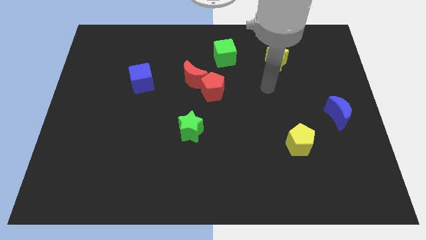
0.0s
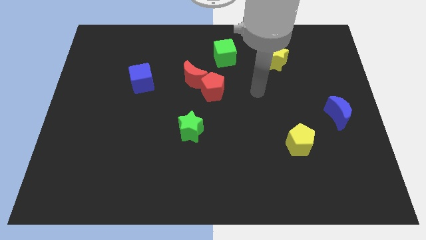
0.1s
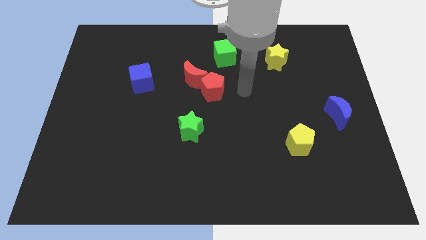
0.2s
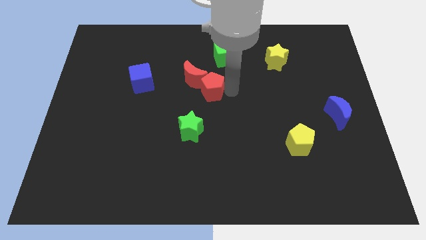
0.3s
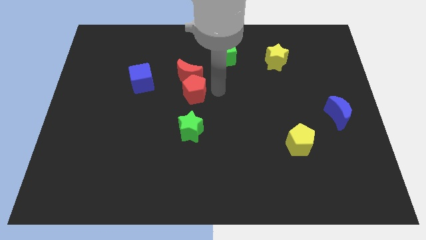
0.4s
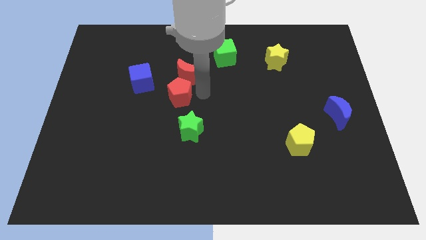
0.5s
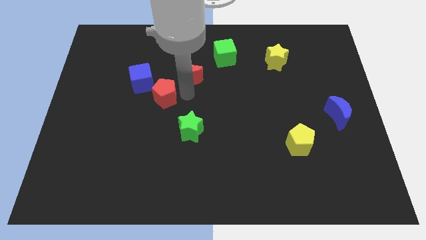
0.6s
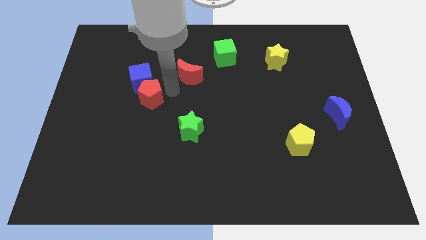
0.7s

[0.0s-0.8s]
move the red moon away from the red pentagon

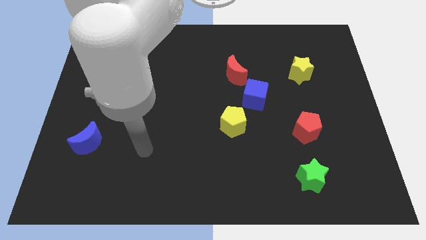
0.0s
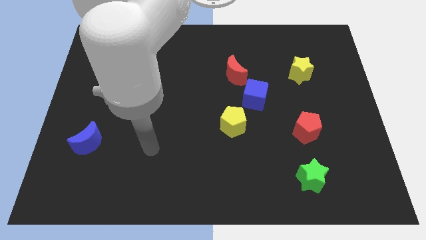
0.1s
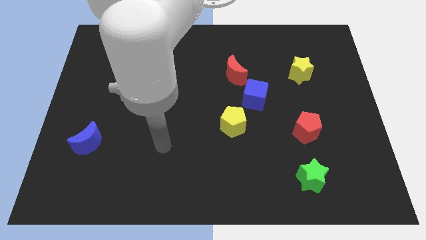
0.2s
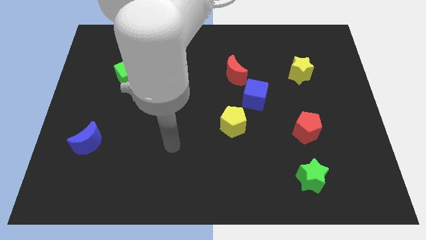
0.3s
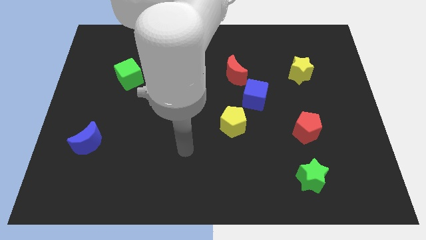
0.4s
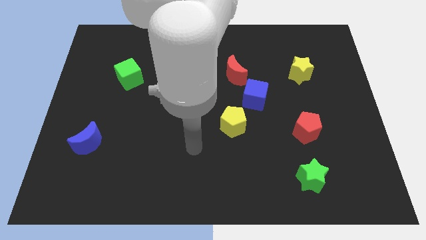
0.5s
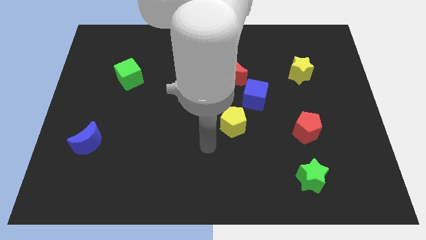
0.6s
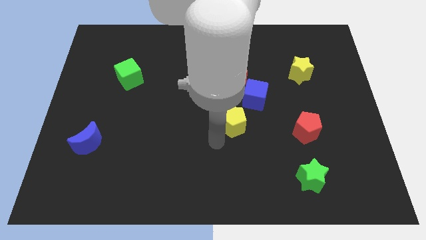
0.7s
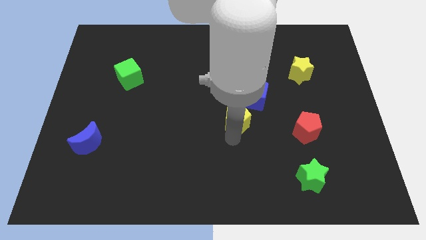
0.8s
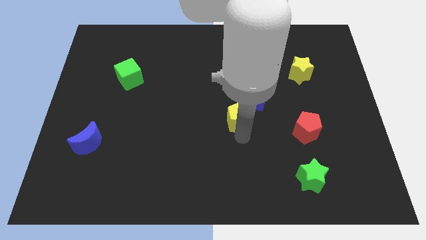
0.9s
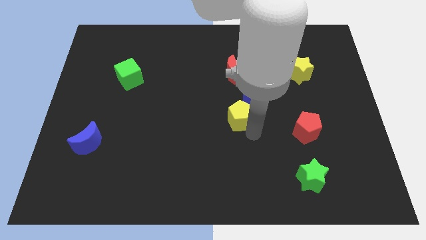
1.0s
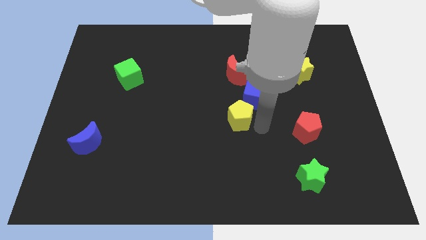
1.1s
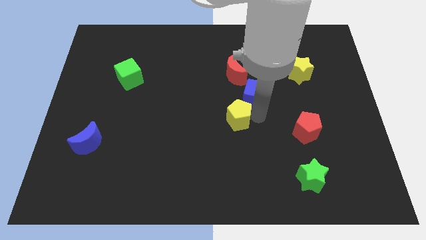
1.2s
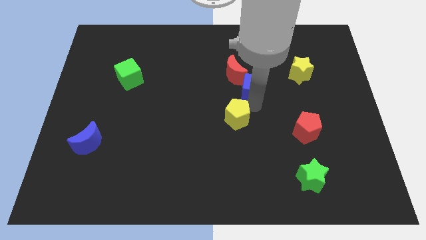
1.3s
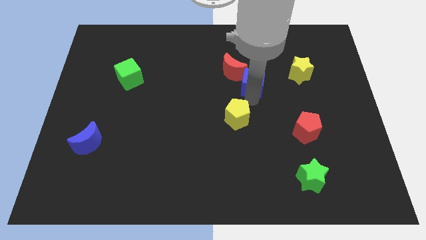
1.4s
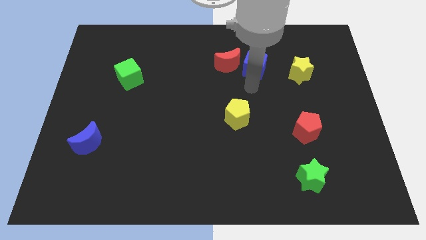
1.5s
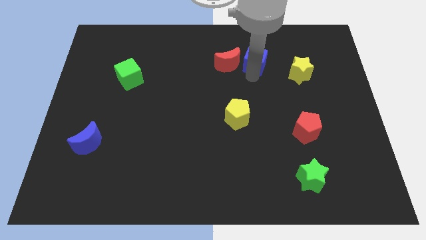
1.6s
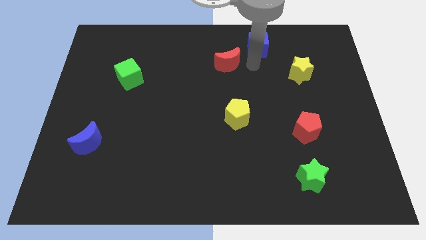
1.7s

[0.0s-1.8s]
pull the red moon apart from the blue cube

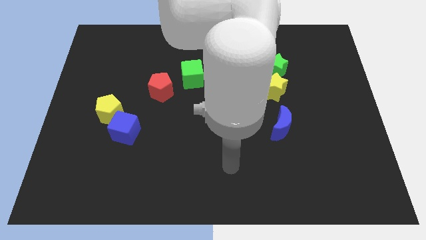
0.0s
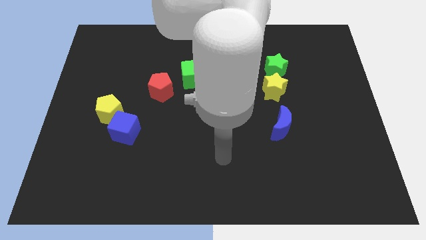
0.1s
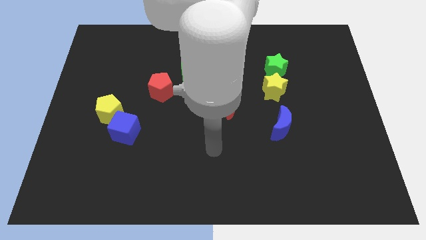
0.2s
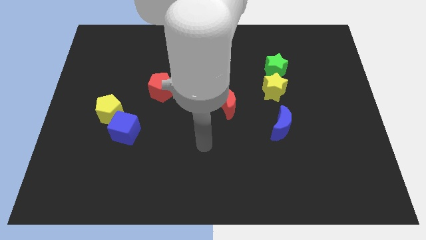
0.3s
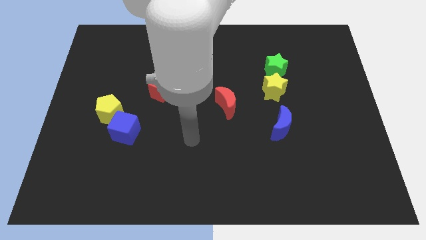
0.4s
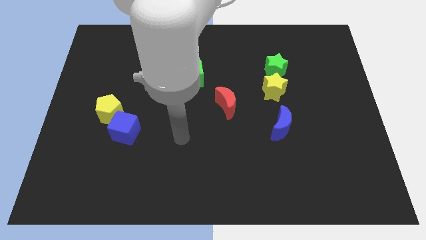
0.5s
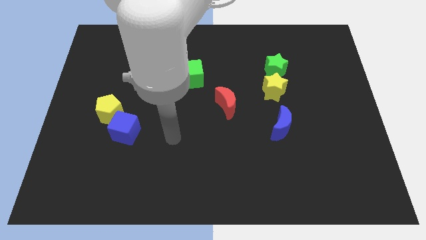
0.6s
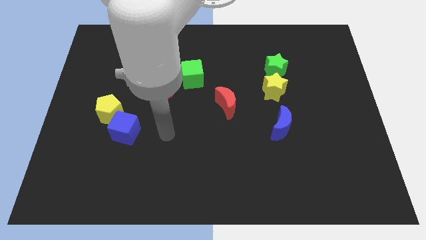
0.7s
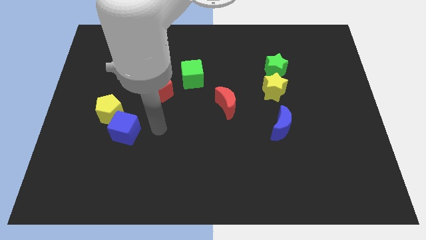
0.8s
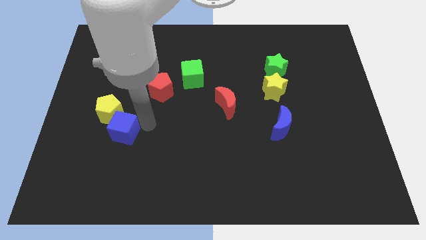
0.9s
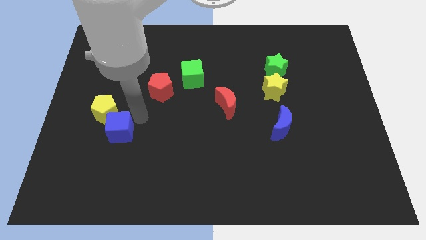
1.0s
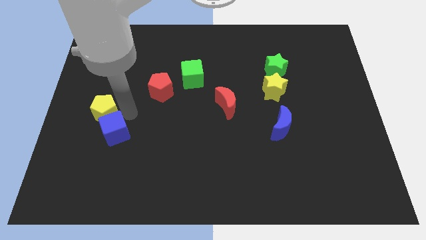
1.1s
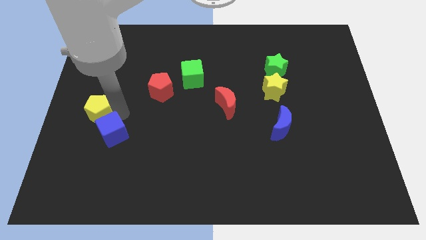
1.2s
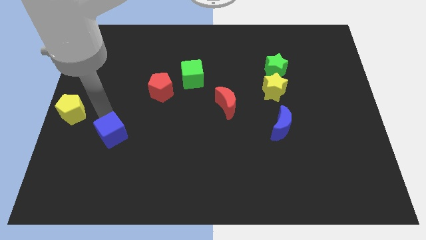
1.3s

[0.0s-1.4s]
pull the blue cube apart from the yellow pentagon

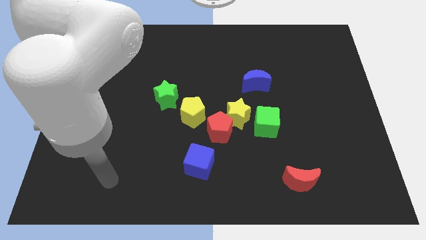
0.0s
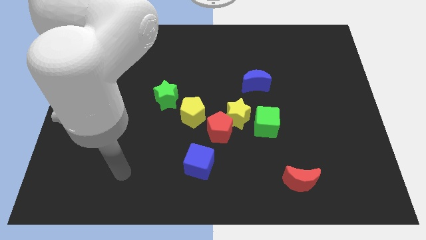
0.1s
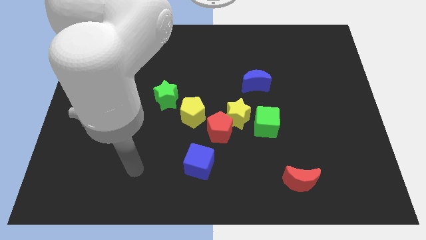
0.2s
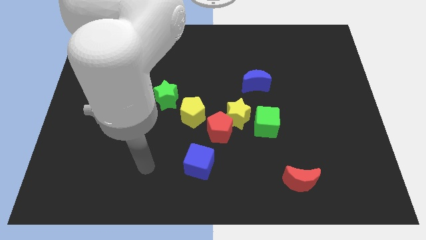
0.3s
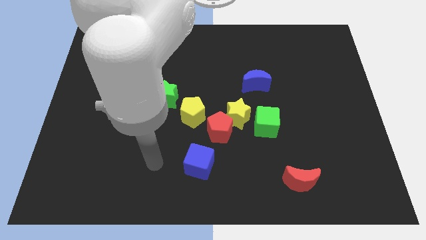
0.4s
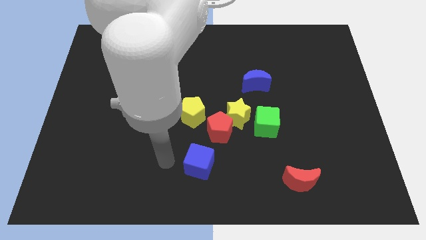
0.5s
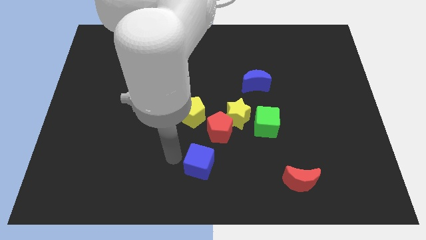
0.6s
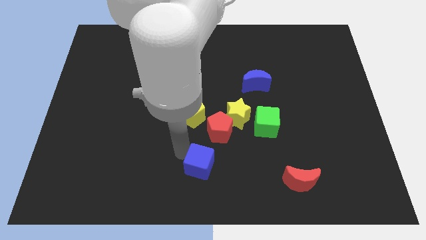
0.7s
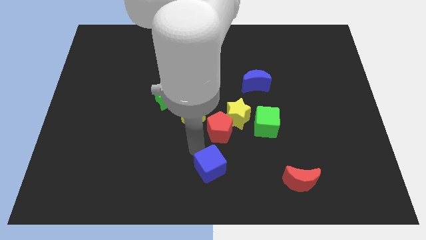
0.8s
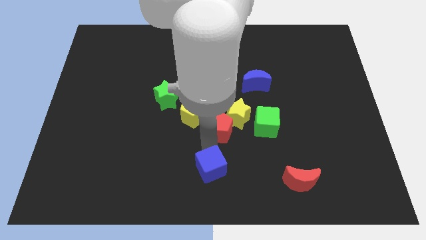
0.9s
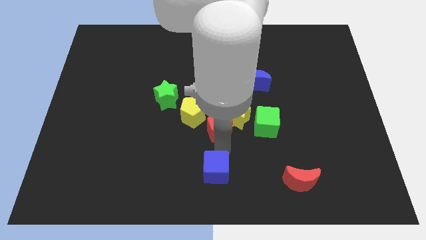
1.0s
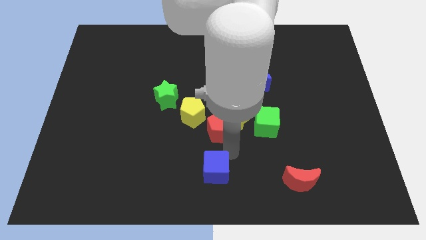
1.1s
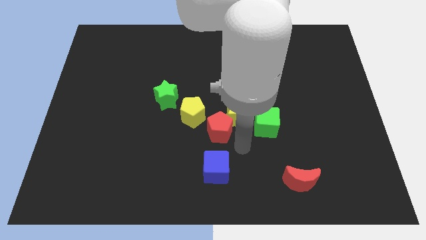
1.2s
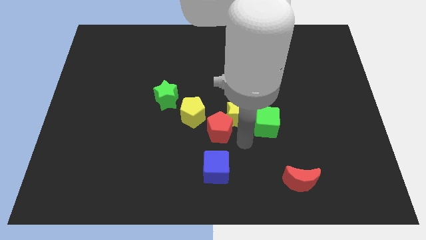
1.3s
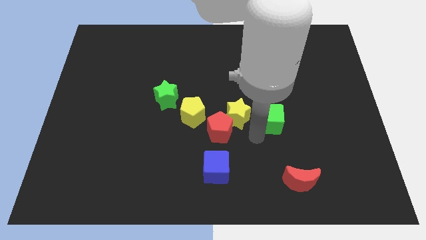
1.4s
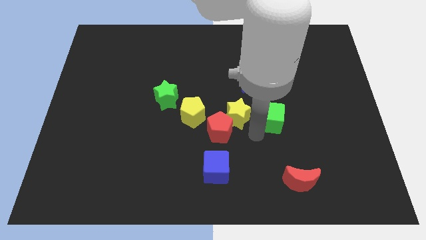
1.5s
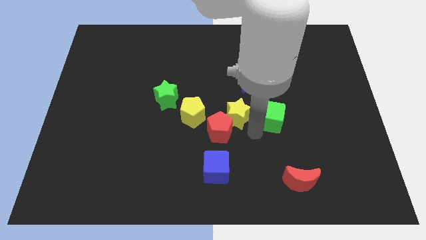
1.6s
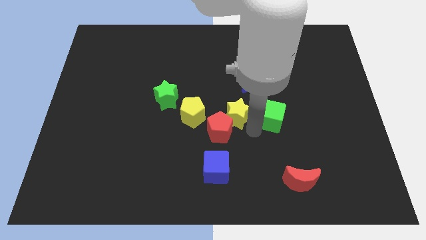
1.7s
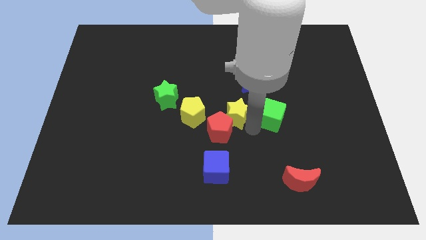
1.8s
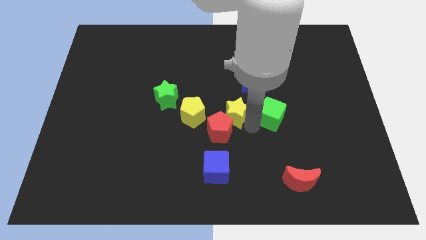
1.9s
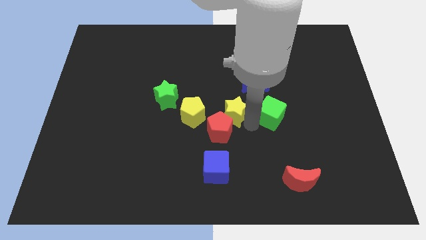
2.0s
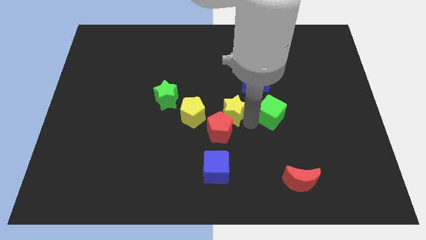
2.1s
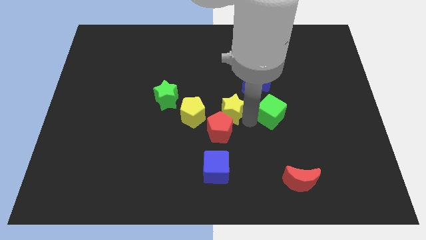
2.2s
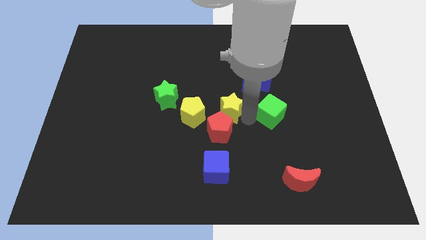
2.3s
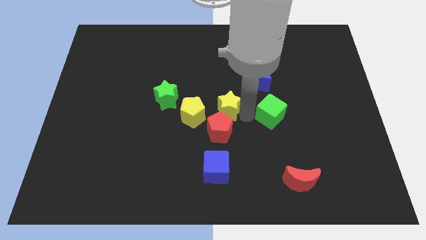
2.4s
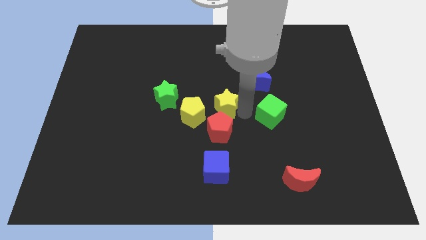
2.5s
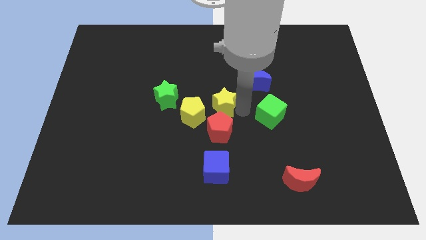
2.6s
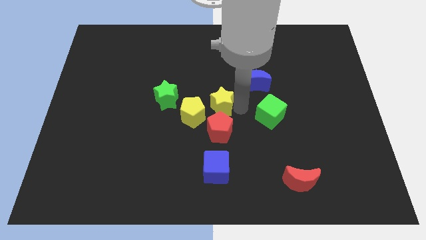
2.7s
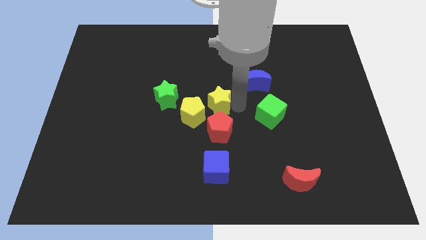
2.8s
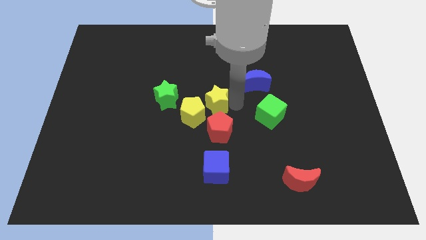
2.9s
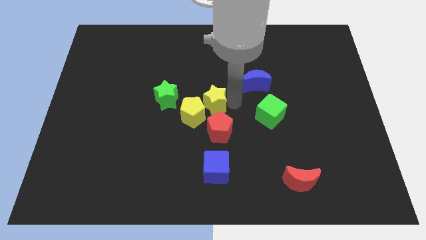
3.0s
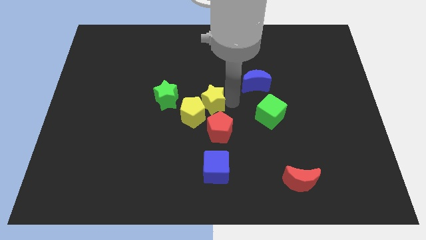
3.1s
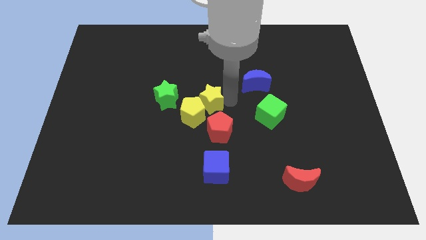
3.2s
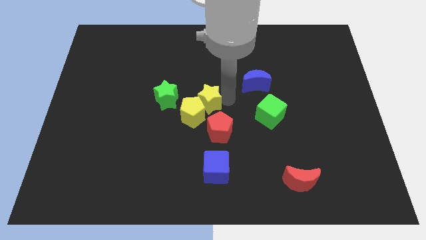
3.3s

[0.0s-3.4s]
move the yellow star away from the red pentagon and green cube

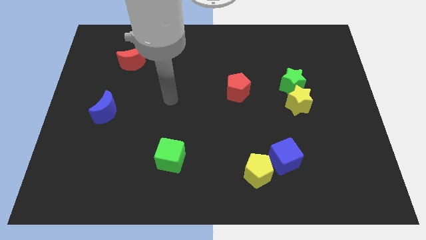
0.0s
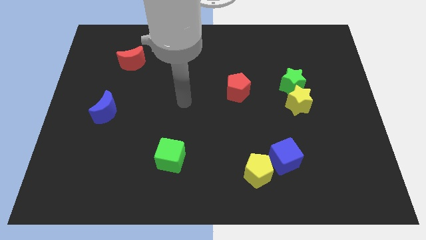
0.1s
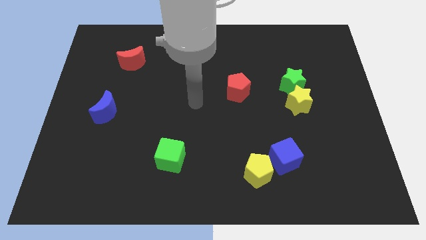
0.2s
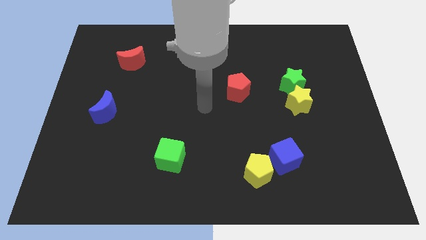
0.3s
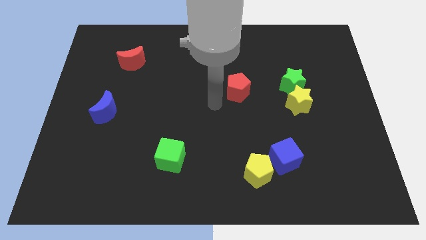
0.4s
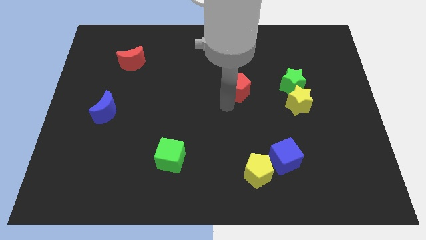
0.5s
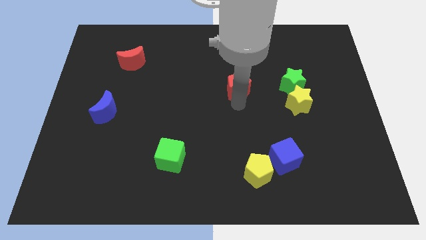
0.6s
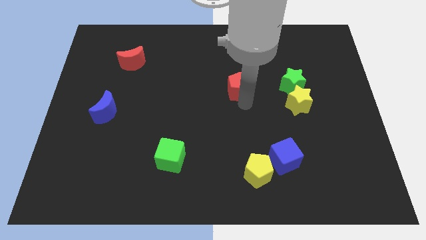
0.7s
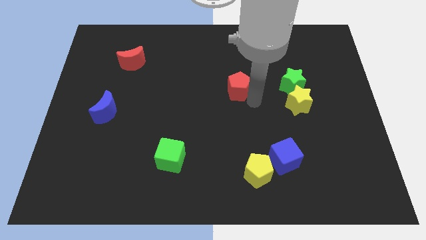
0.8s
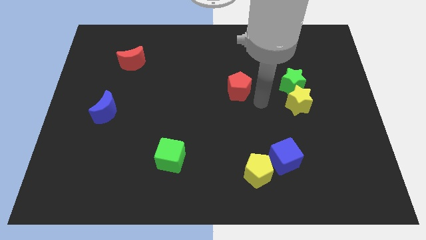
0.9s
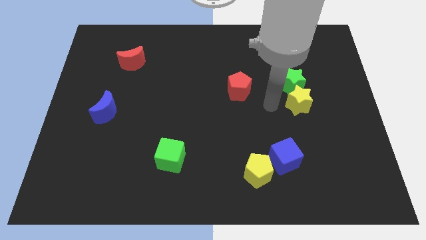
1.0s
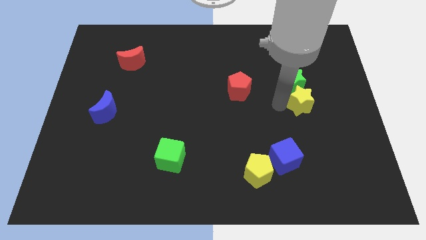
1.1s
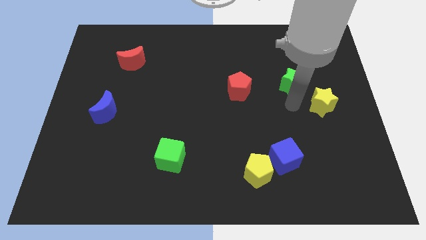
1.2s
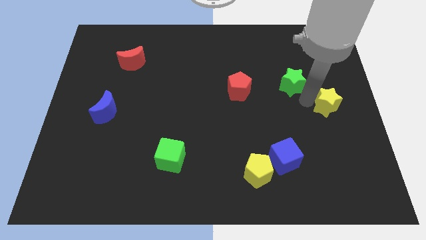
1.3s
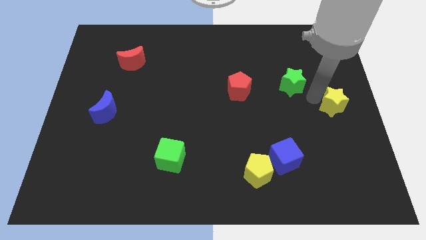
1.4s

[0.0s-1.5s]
move the green star away from the yellow star

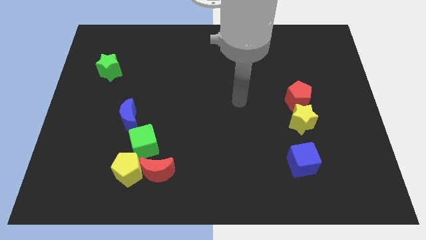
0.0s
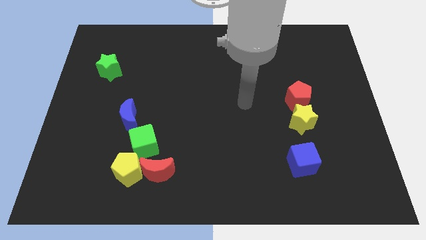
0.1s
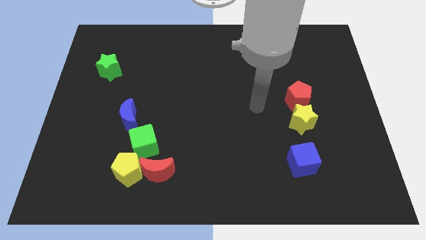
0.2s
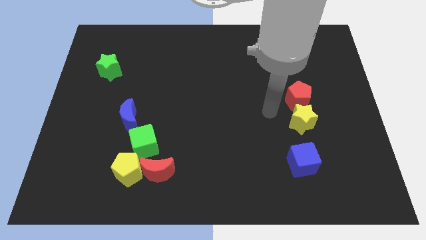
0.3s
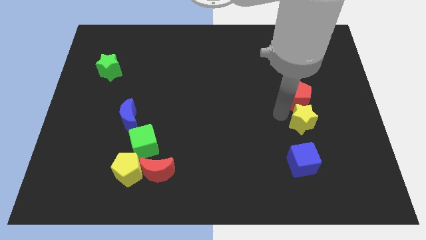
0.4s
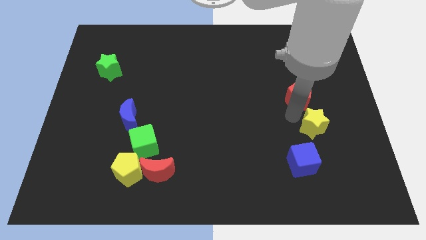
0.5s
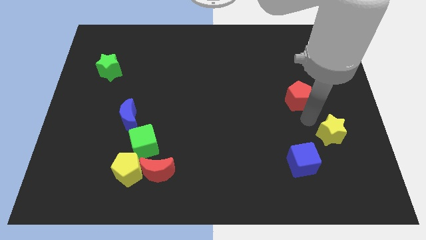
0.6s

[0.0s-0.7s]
move the red pentagon away from the yellow star
